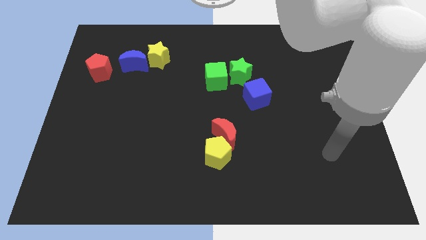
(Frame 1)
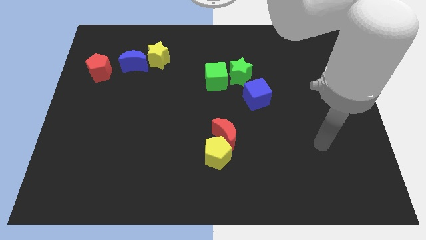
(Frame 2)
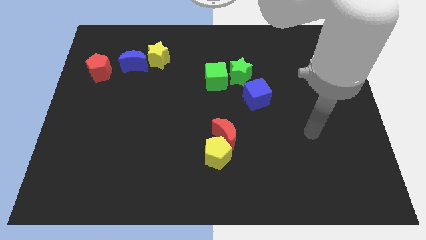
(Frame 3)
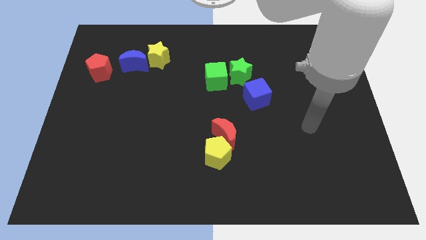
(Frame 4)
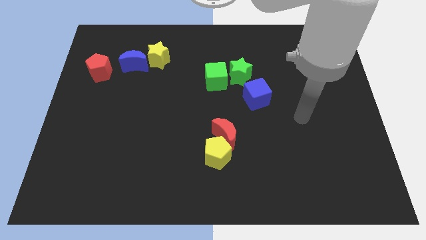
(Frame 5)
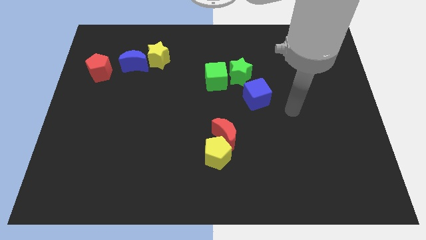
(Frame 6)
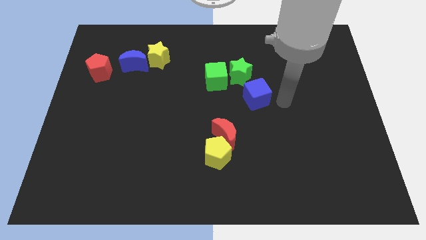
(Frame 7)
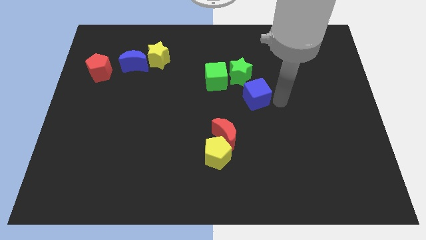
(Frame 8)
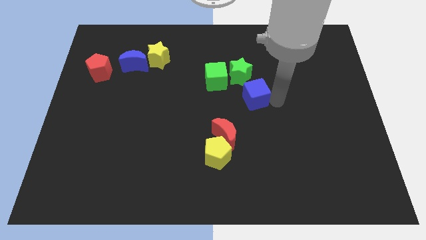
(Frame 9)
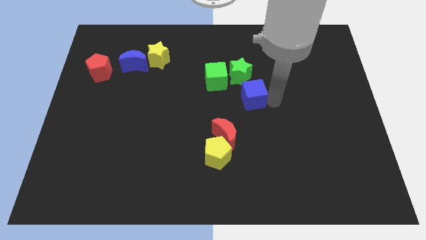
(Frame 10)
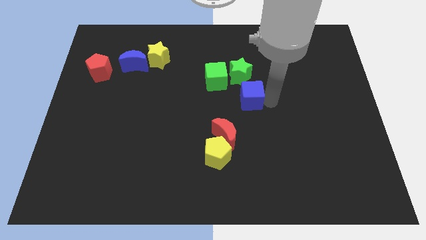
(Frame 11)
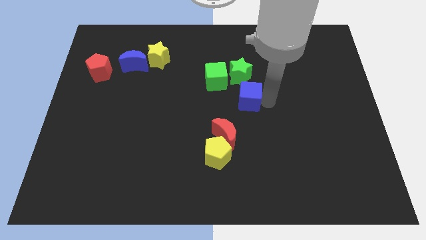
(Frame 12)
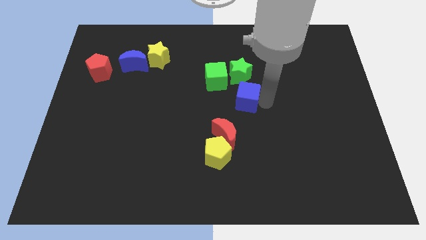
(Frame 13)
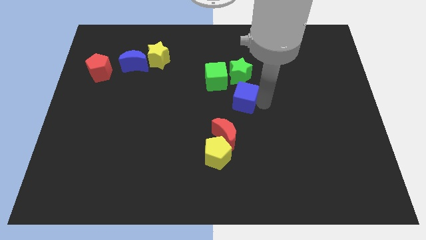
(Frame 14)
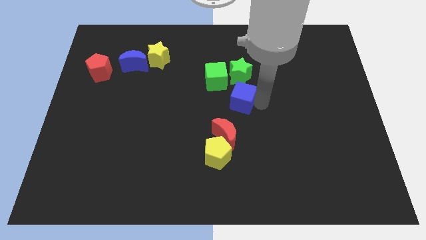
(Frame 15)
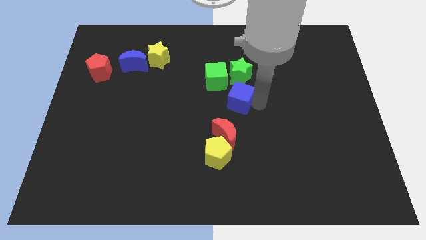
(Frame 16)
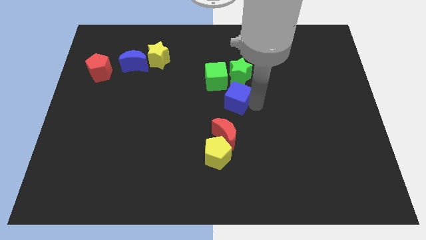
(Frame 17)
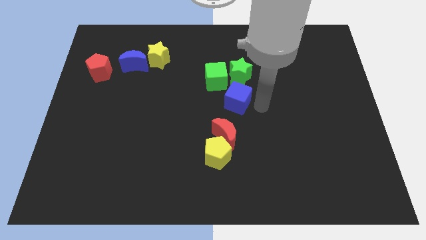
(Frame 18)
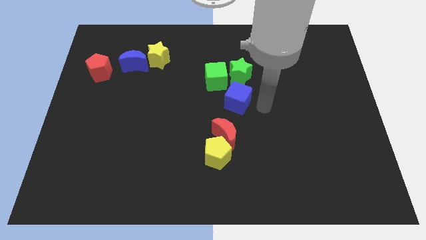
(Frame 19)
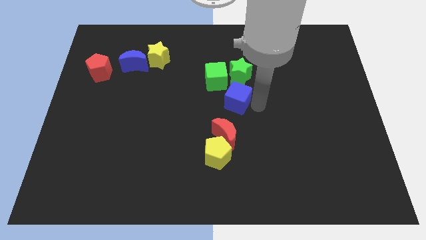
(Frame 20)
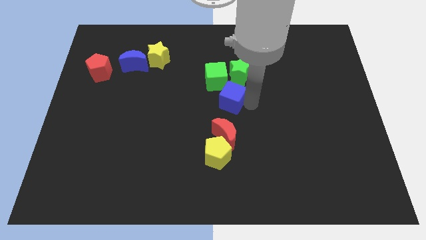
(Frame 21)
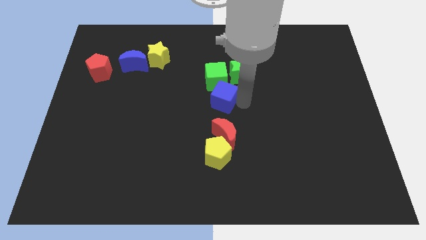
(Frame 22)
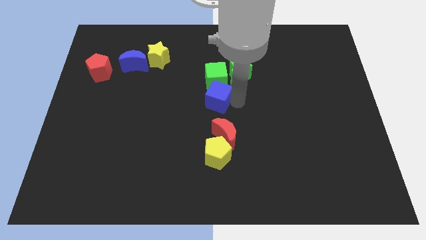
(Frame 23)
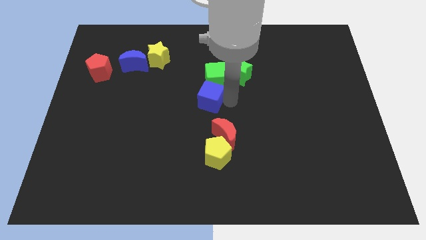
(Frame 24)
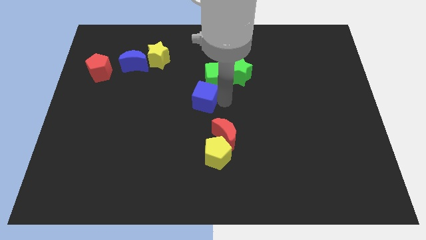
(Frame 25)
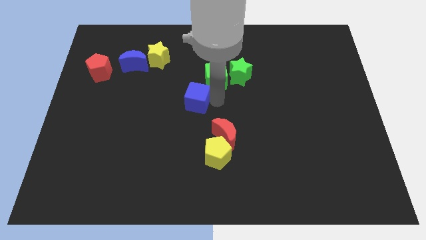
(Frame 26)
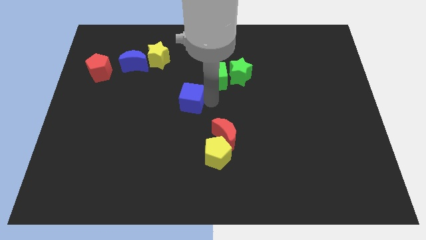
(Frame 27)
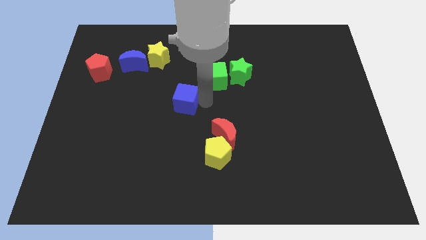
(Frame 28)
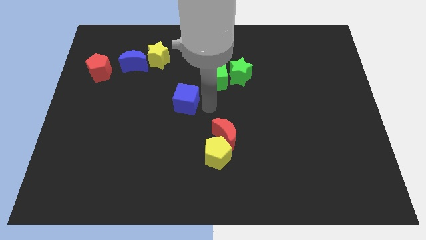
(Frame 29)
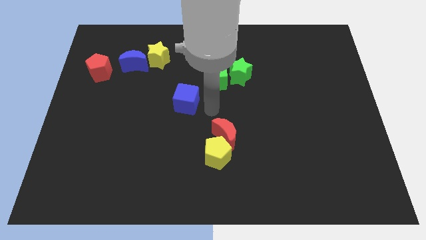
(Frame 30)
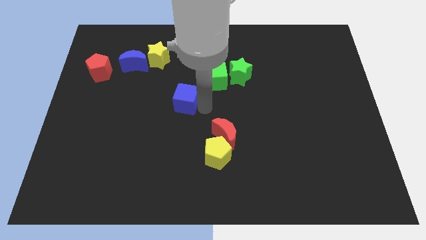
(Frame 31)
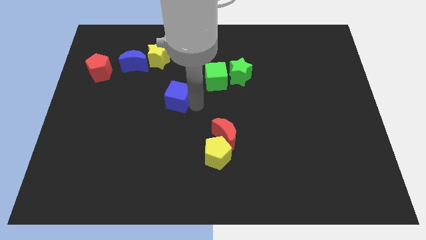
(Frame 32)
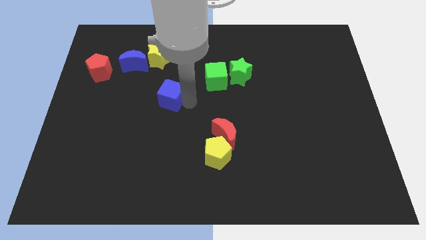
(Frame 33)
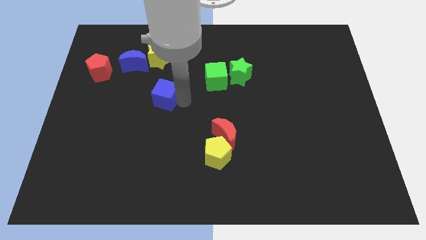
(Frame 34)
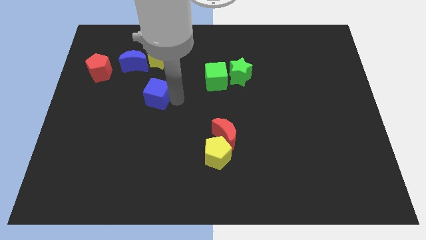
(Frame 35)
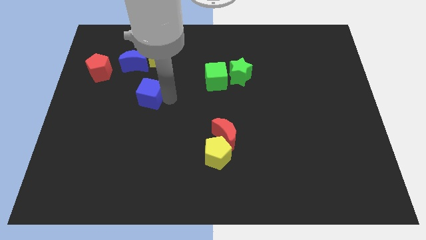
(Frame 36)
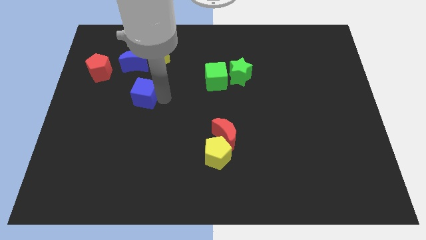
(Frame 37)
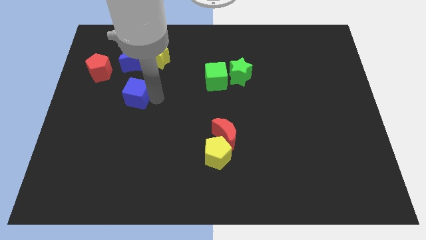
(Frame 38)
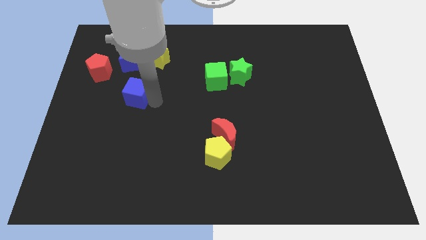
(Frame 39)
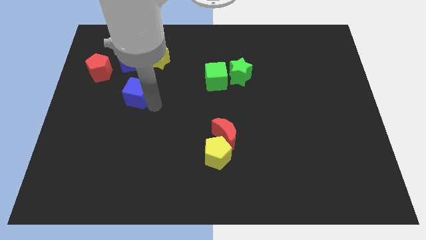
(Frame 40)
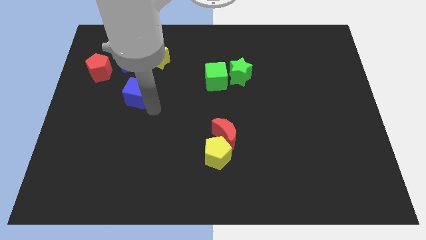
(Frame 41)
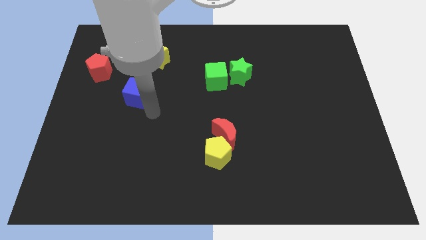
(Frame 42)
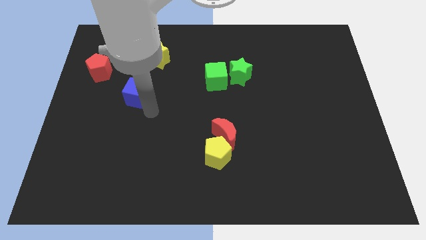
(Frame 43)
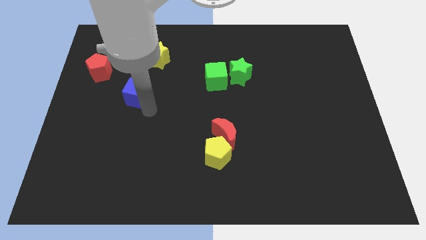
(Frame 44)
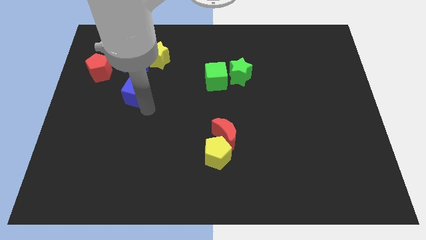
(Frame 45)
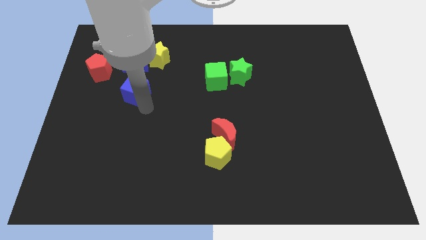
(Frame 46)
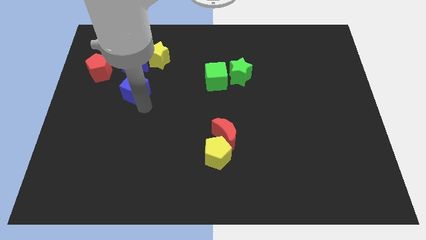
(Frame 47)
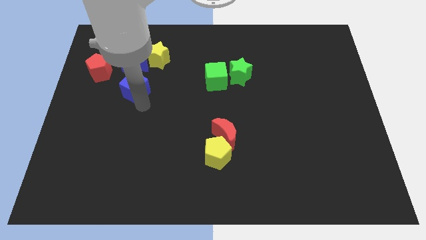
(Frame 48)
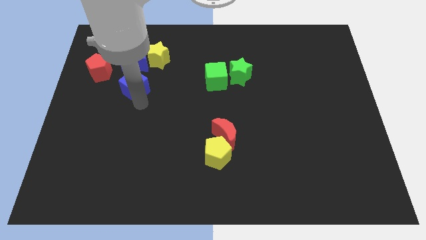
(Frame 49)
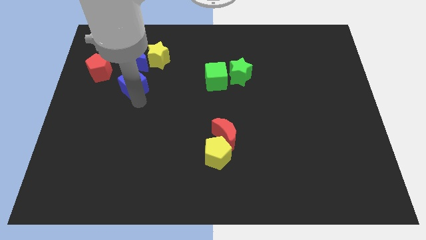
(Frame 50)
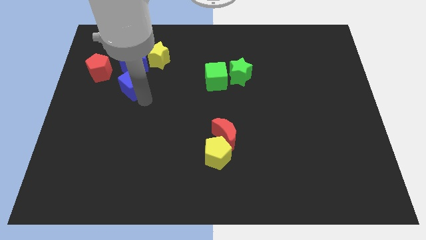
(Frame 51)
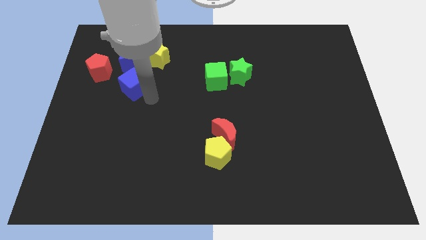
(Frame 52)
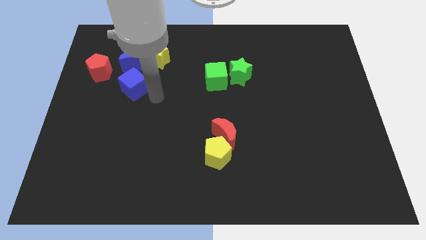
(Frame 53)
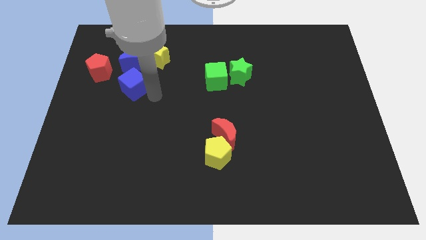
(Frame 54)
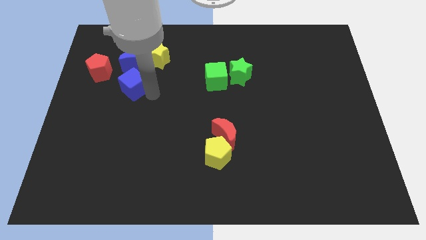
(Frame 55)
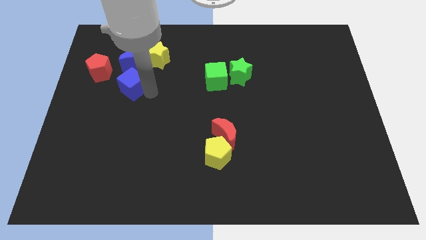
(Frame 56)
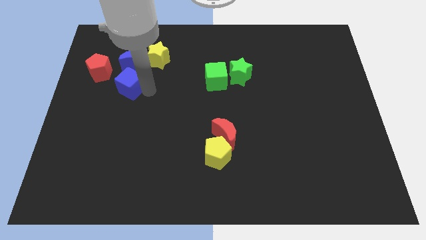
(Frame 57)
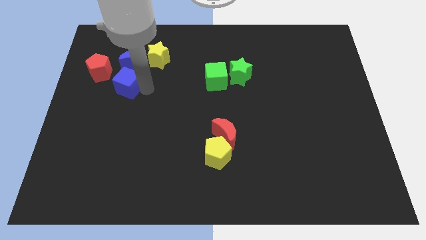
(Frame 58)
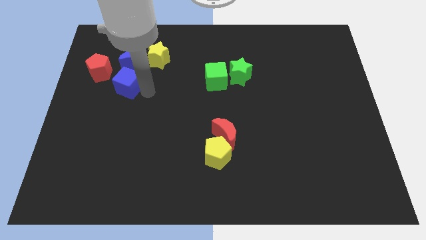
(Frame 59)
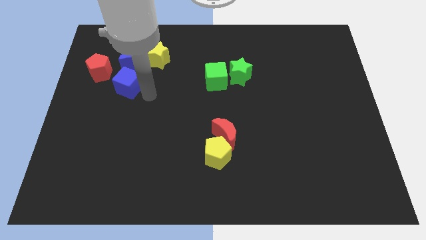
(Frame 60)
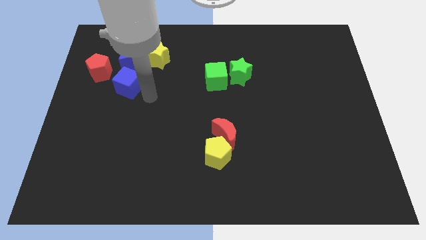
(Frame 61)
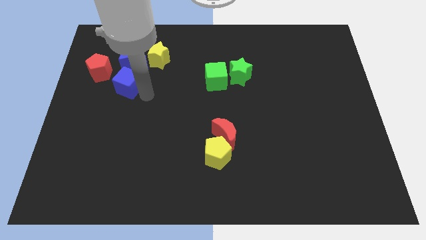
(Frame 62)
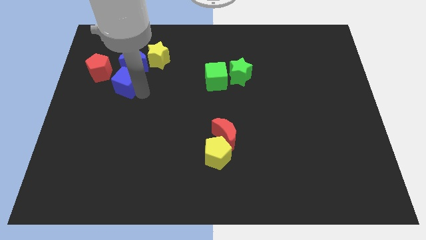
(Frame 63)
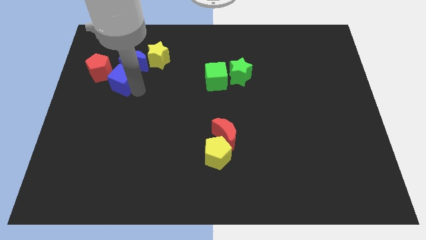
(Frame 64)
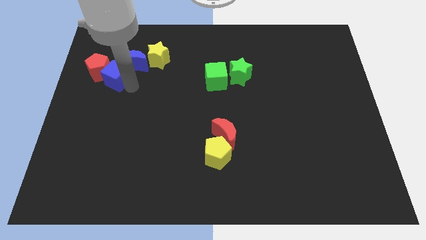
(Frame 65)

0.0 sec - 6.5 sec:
put the blue cube next to the red pentagon
